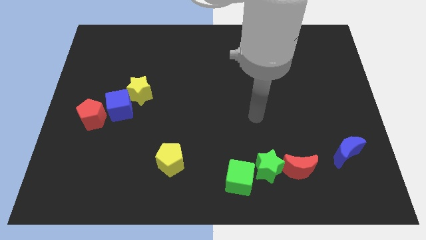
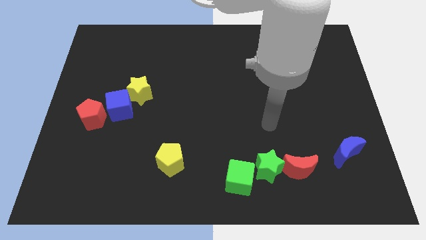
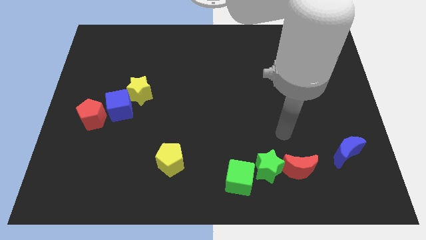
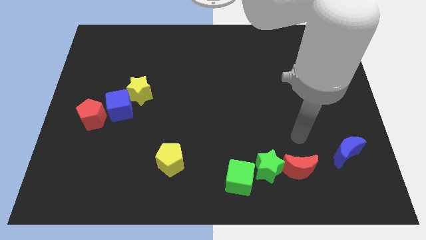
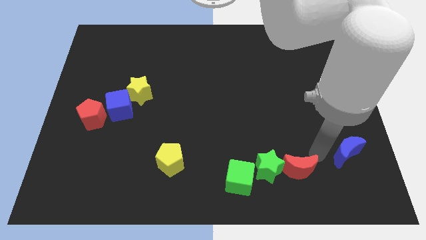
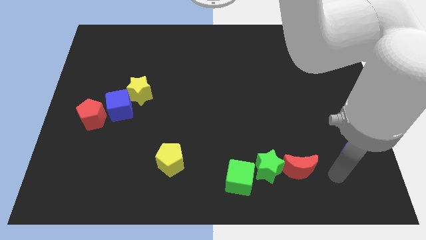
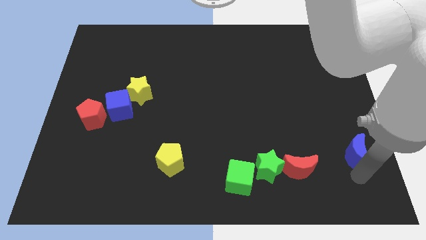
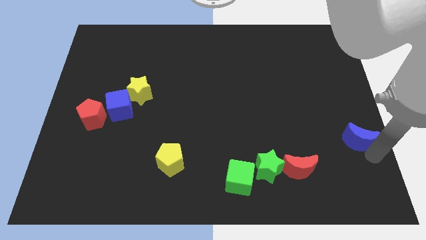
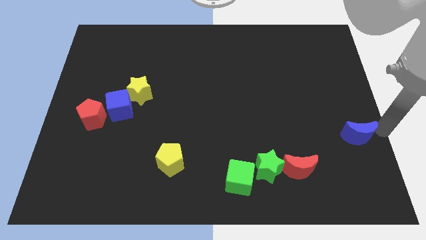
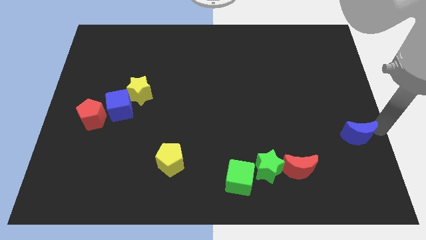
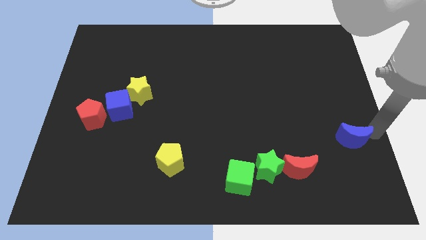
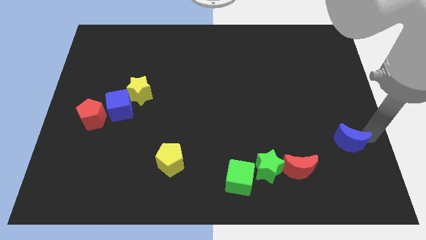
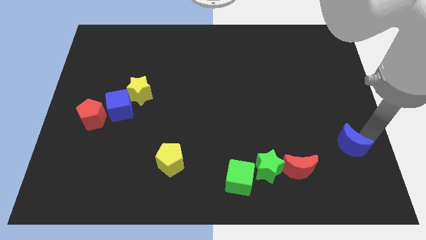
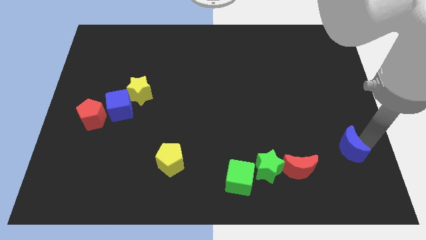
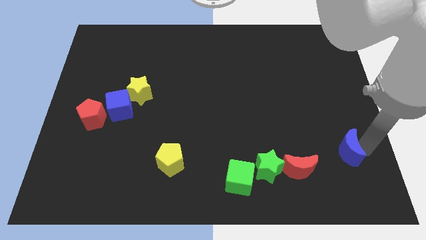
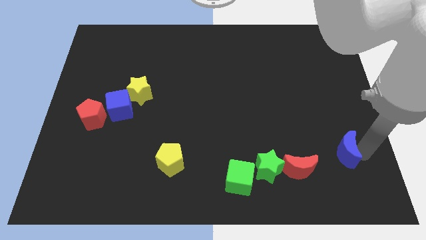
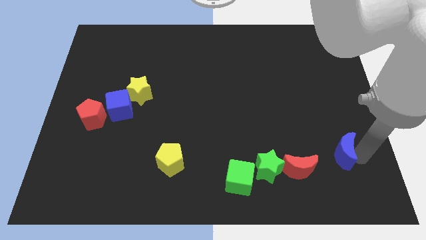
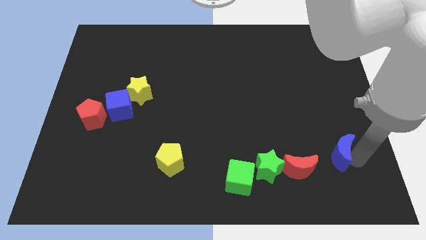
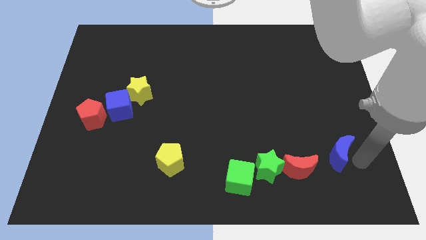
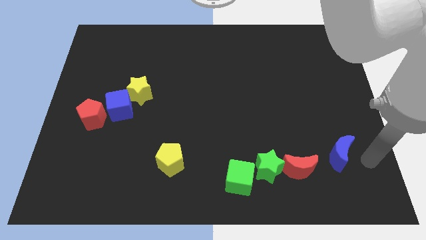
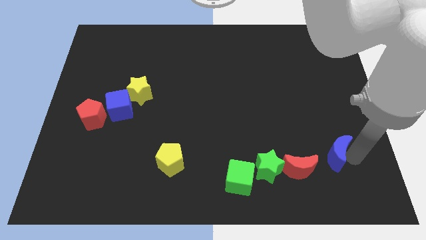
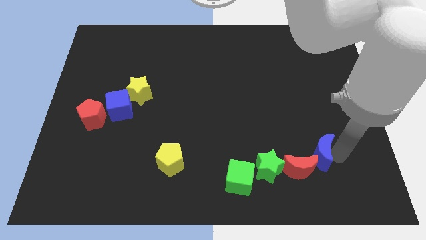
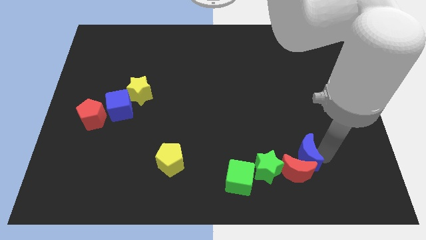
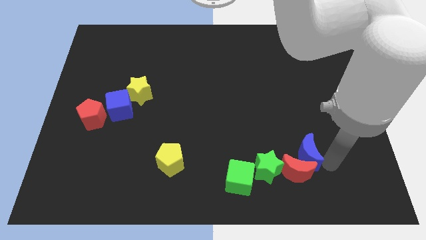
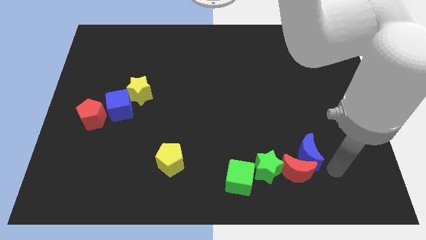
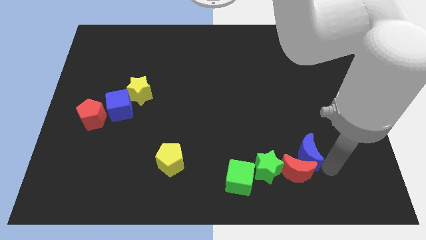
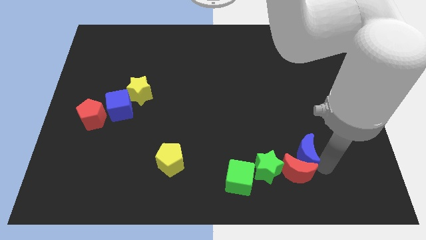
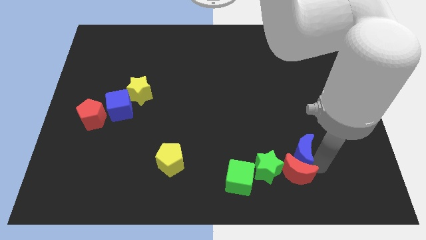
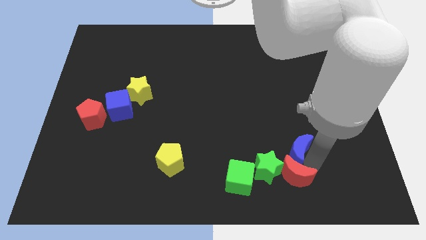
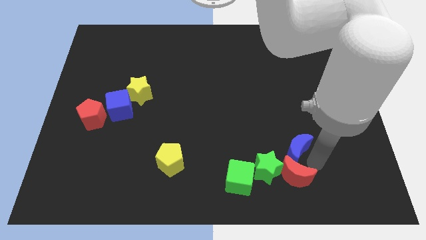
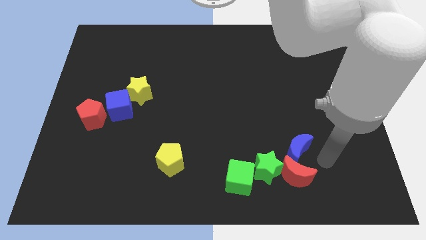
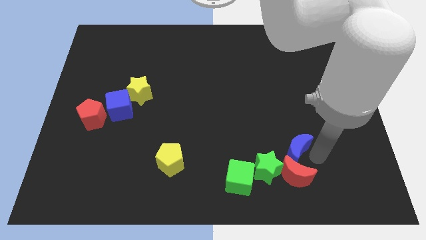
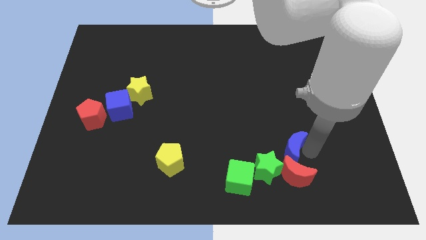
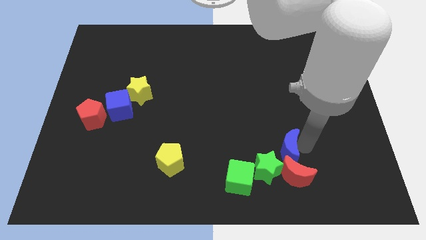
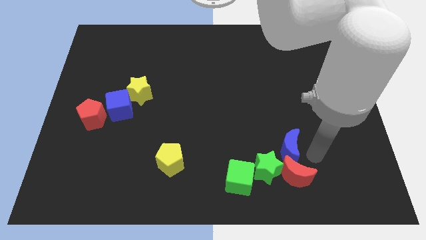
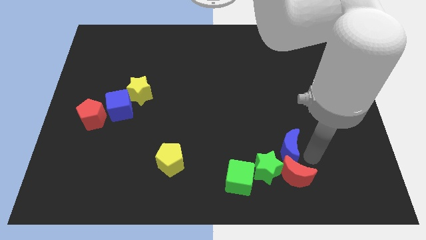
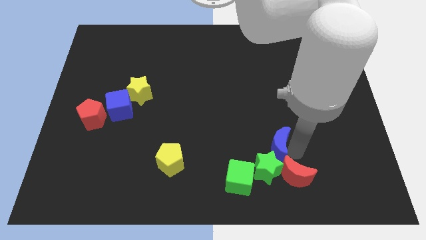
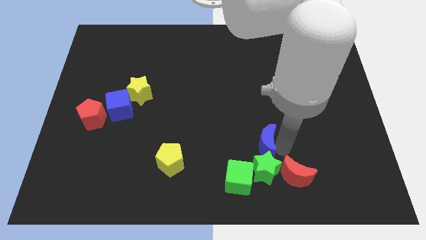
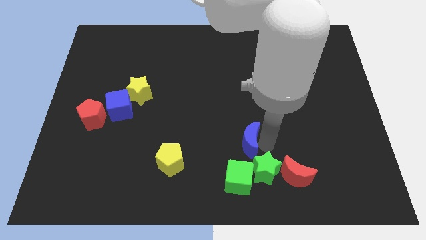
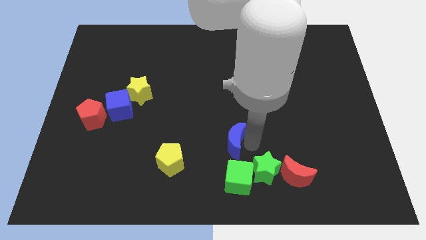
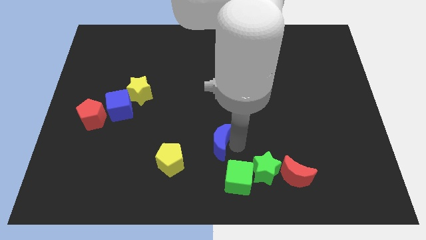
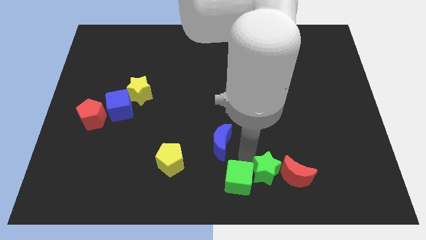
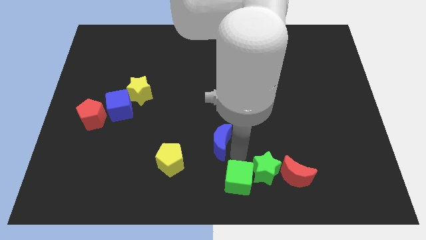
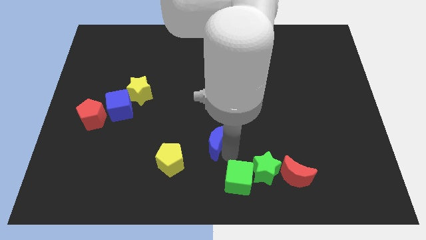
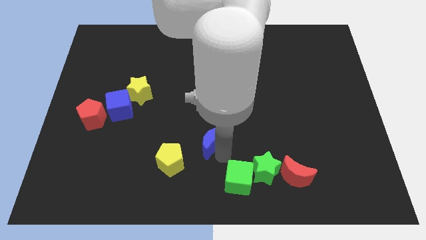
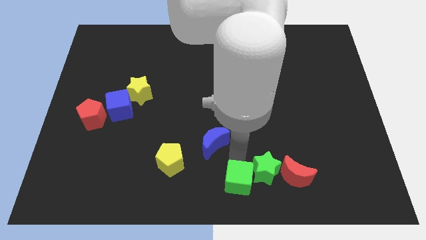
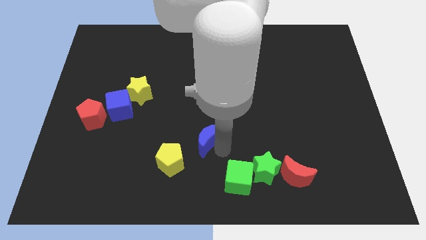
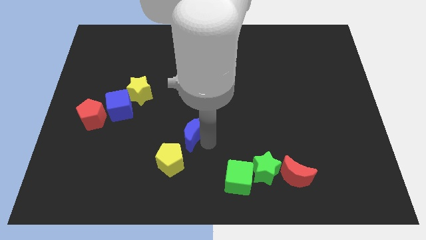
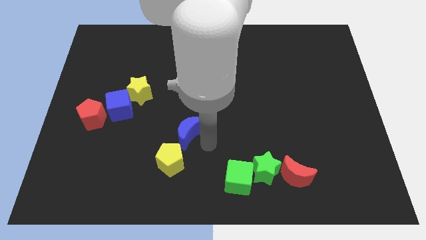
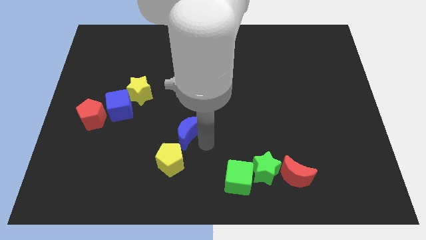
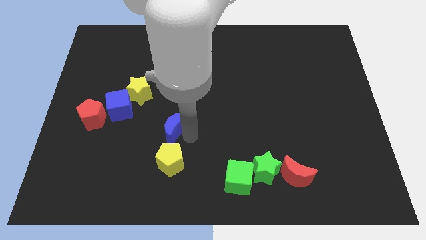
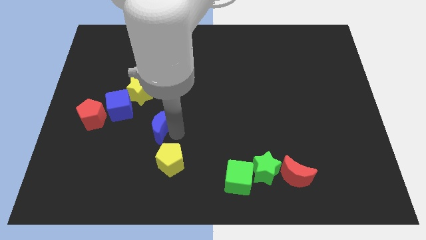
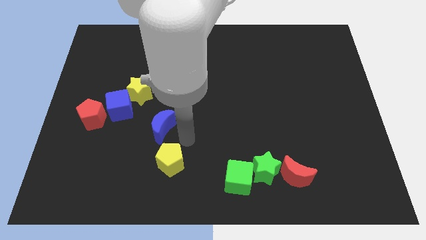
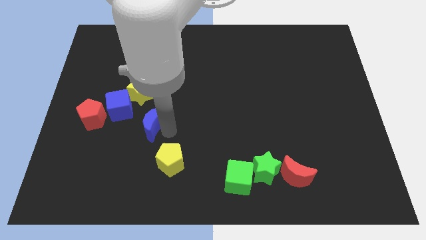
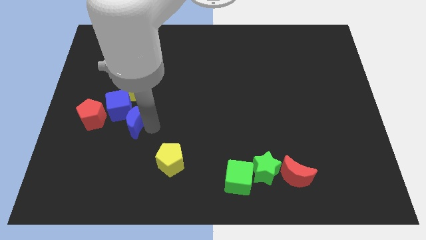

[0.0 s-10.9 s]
move the blue moon close to the blue cube

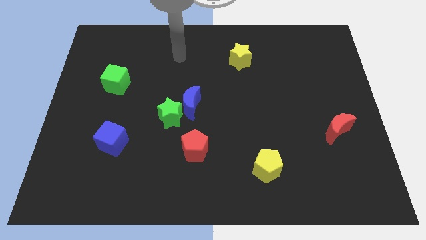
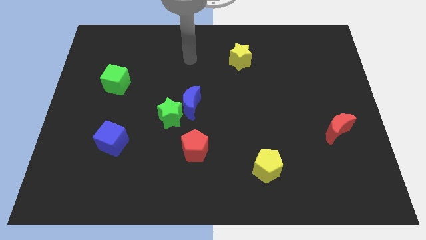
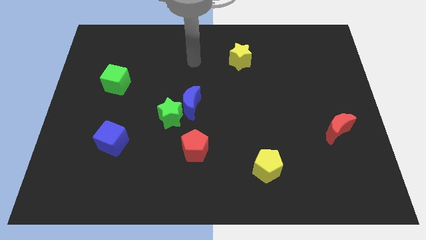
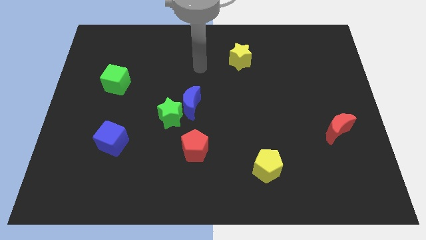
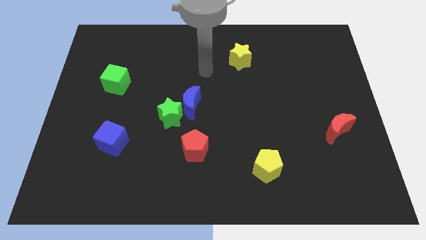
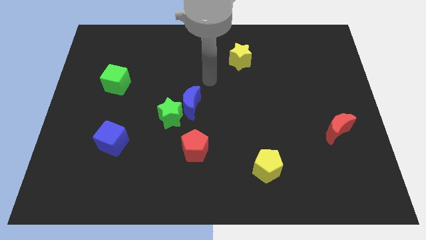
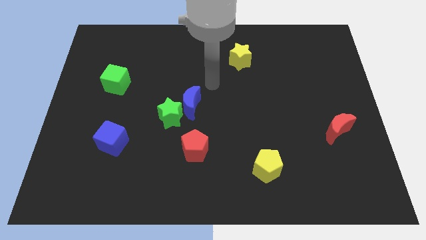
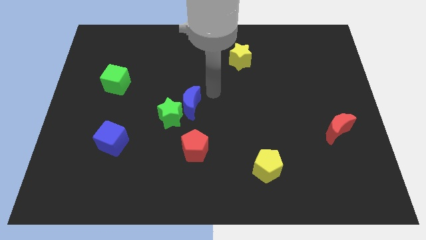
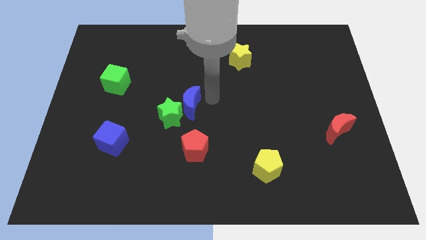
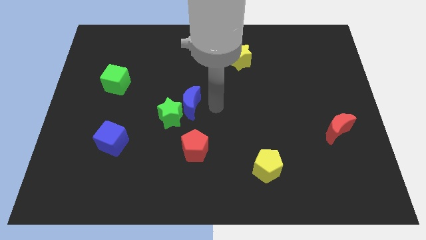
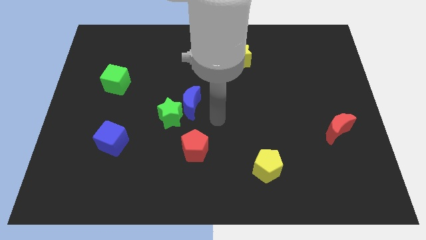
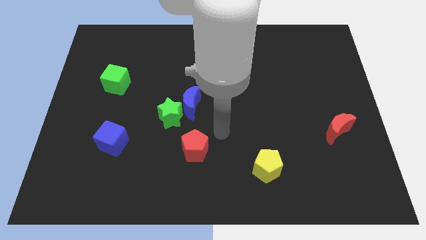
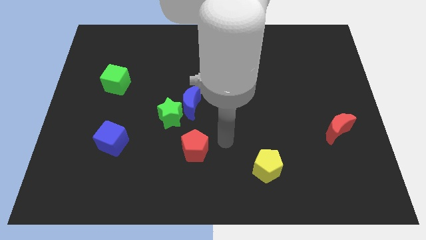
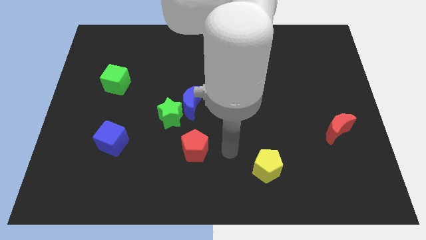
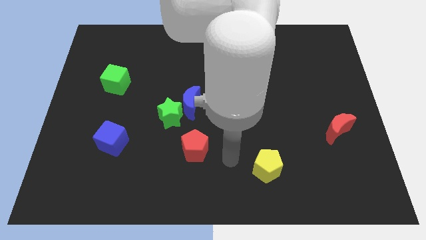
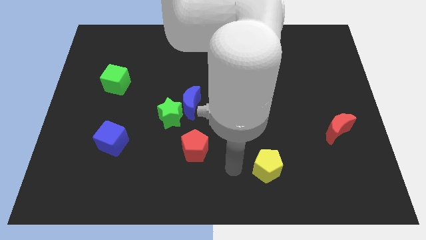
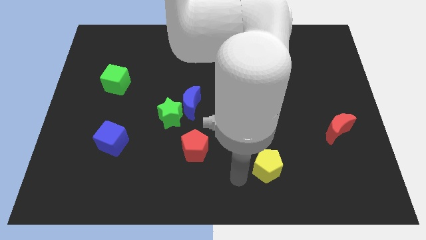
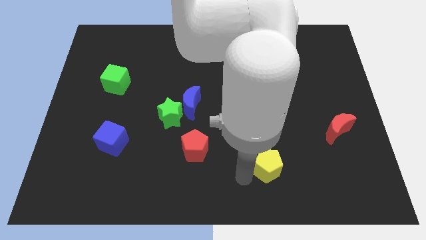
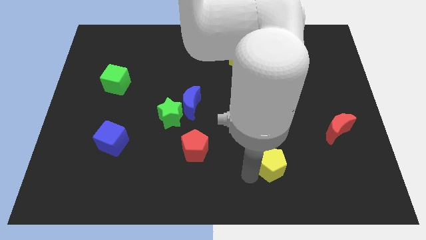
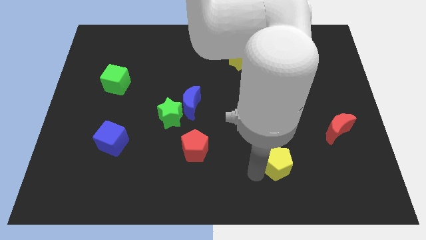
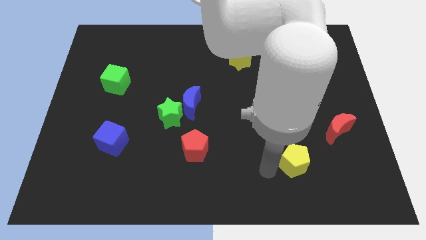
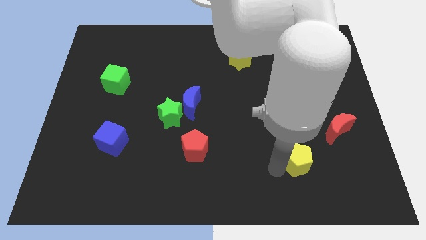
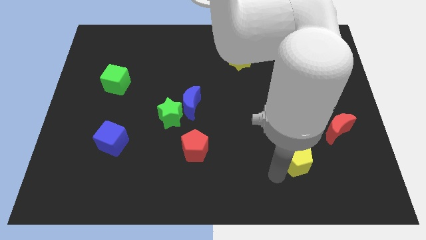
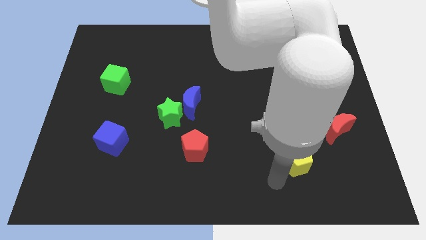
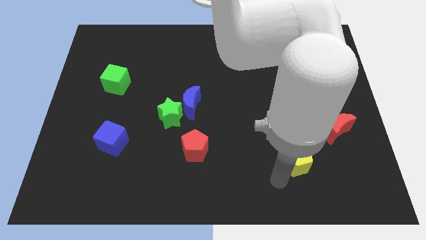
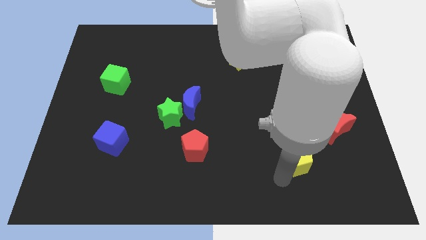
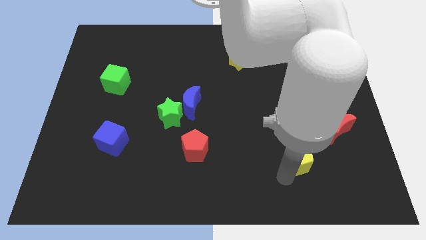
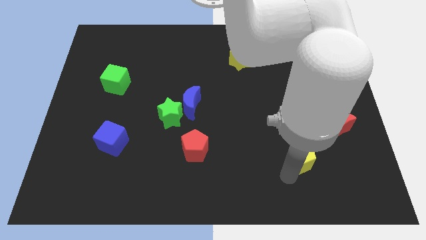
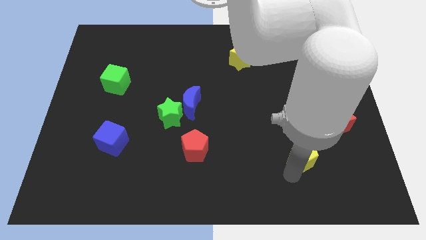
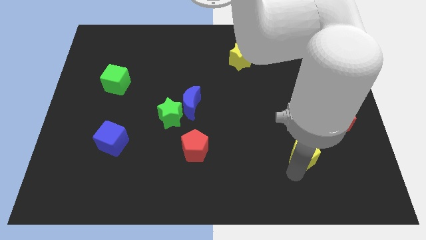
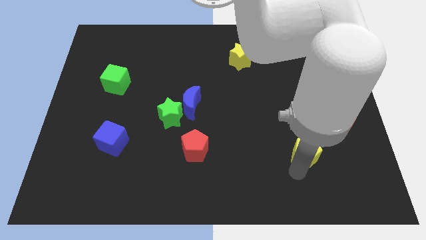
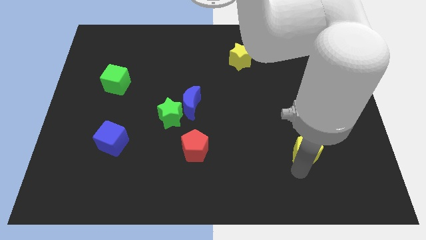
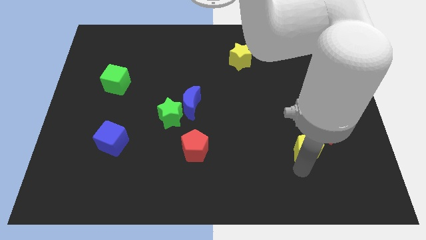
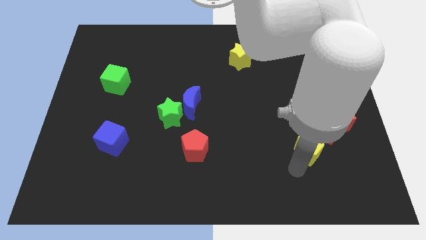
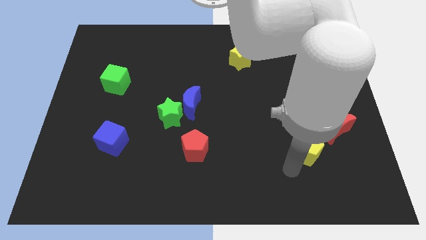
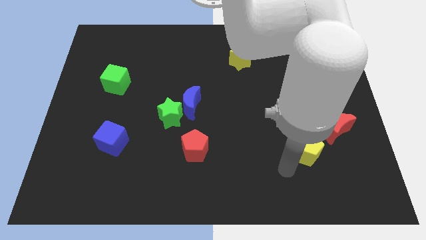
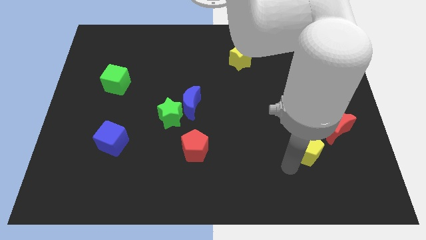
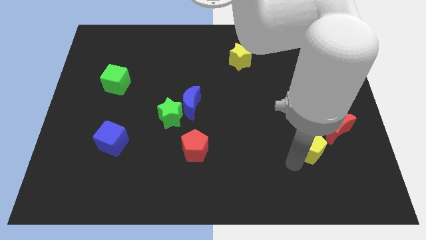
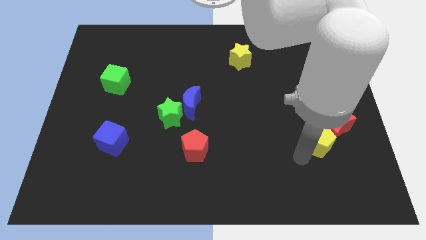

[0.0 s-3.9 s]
slide the yellow pentagon next to the red moon
